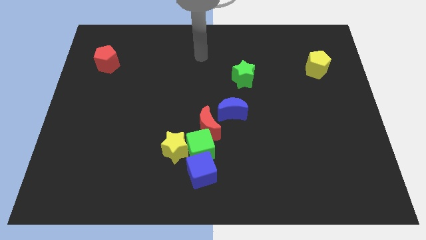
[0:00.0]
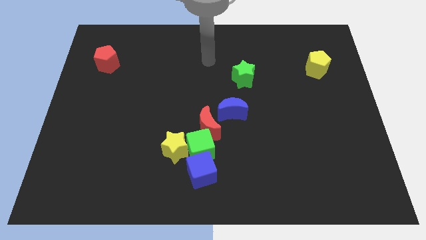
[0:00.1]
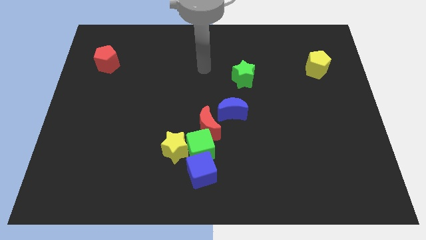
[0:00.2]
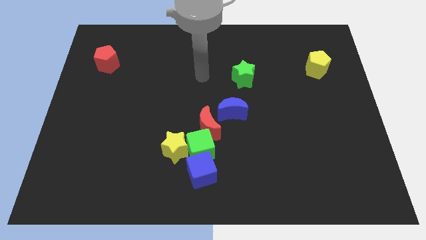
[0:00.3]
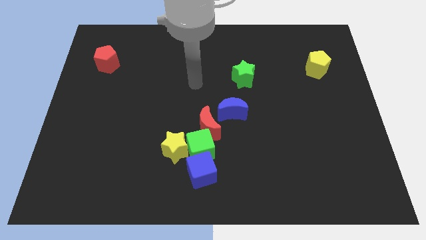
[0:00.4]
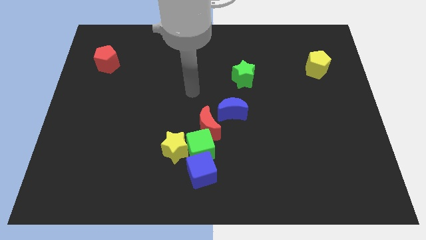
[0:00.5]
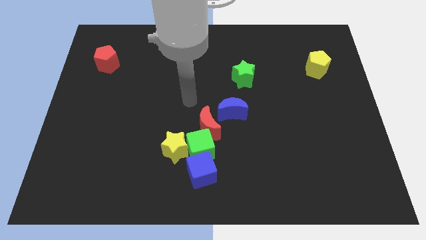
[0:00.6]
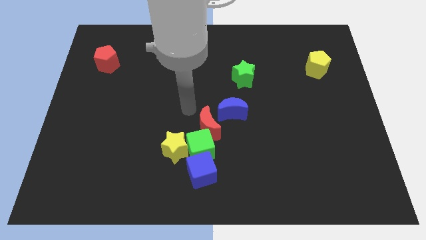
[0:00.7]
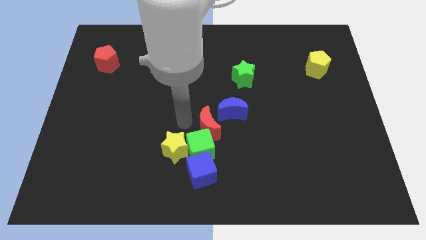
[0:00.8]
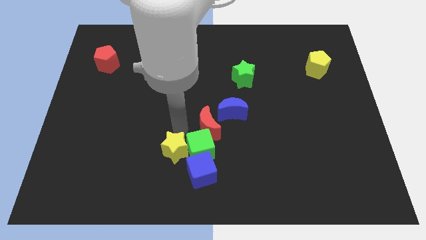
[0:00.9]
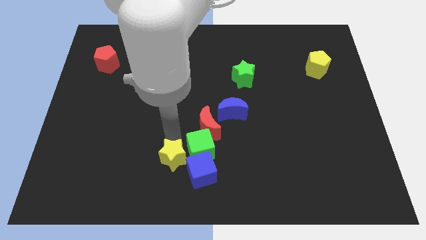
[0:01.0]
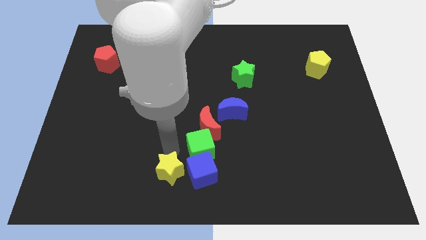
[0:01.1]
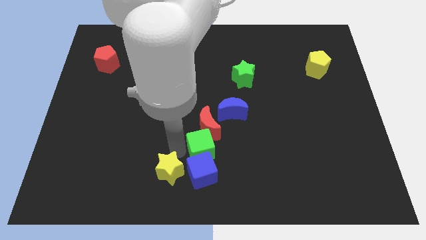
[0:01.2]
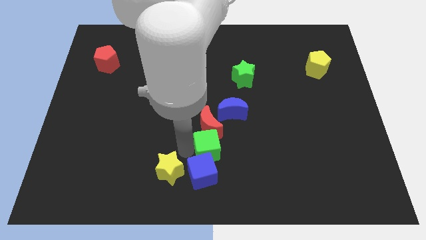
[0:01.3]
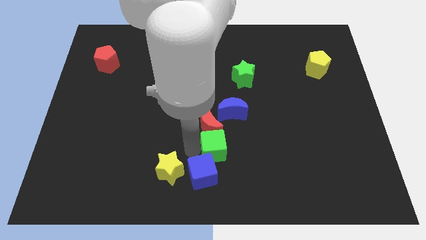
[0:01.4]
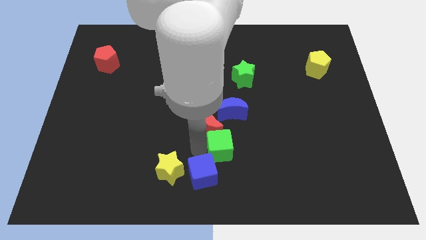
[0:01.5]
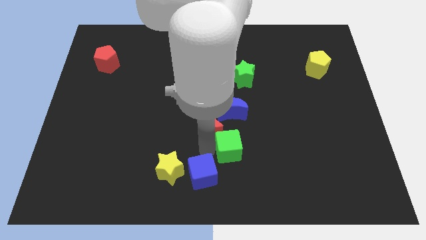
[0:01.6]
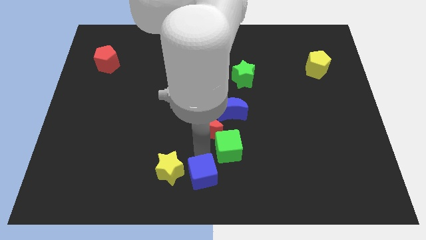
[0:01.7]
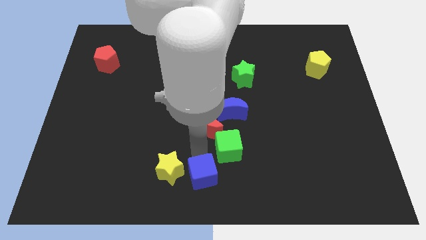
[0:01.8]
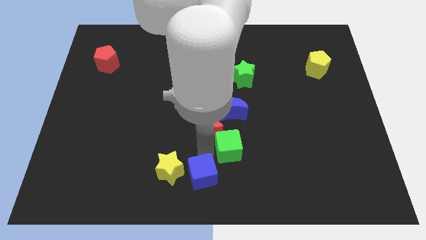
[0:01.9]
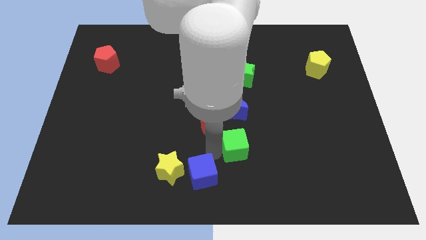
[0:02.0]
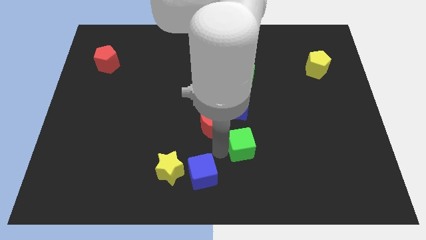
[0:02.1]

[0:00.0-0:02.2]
separate the green cube from the blue cube, yellow star, and red moon

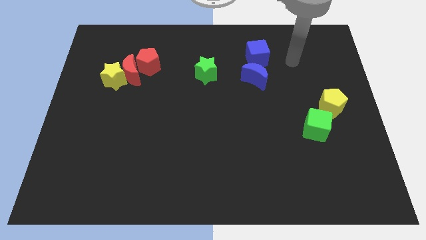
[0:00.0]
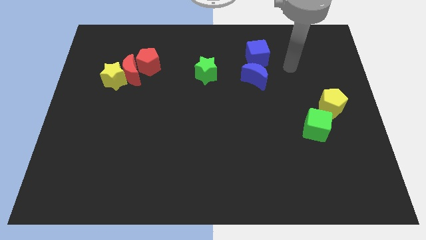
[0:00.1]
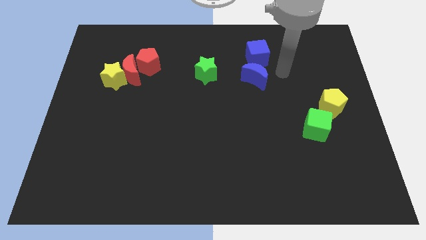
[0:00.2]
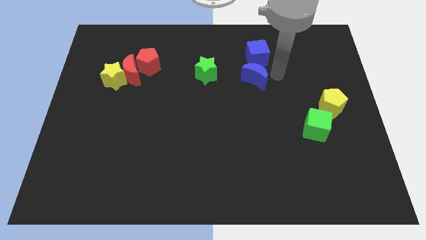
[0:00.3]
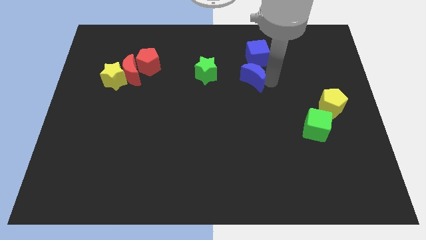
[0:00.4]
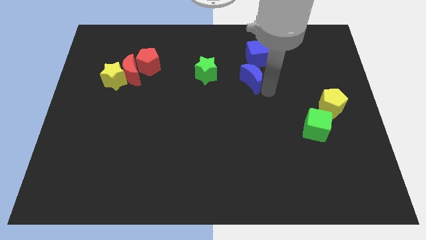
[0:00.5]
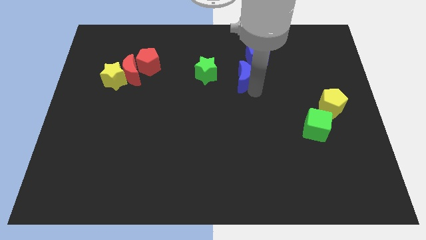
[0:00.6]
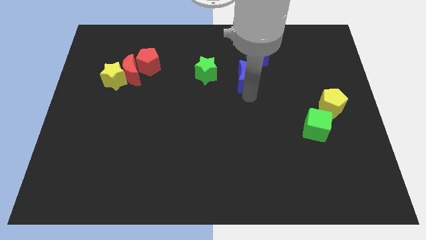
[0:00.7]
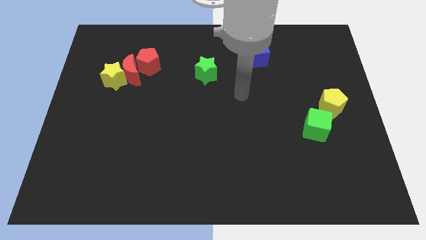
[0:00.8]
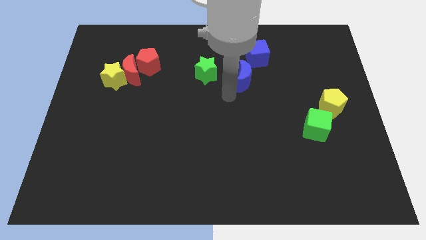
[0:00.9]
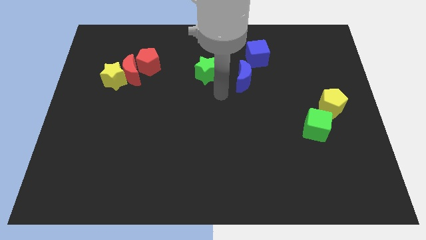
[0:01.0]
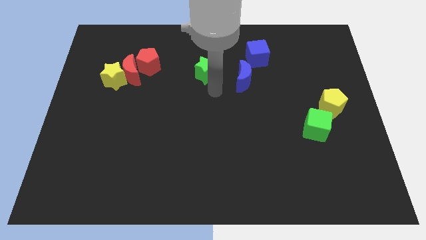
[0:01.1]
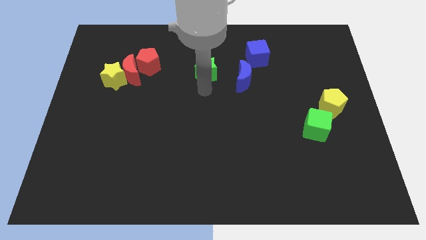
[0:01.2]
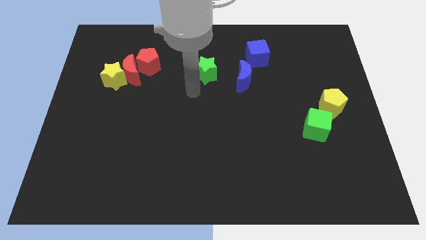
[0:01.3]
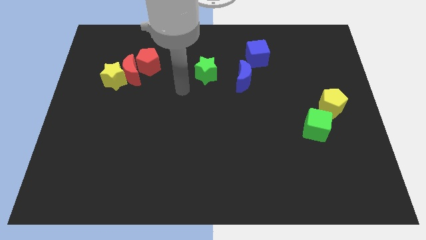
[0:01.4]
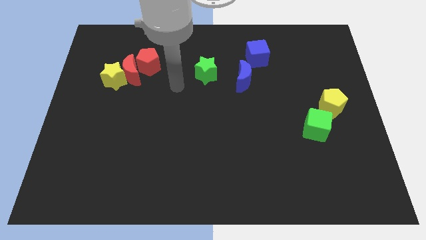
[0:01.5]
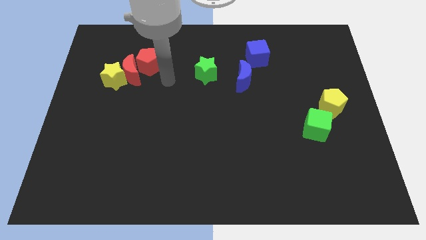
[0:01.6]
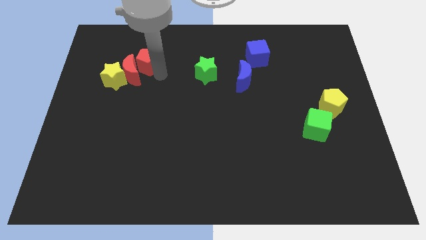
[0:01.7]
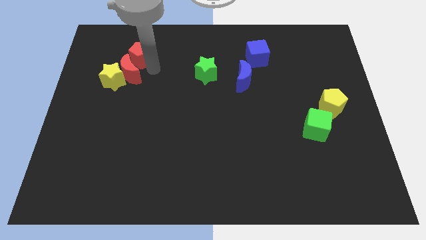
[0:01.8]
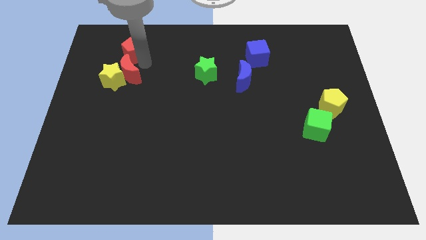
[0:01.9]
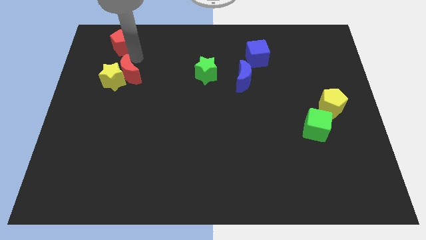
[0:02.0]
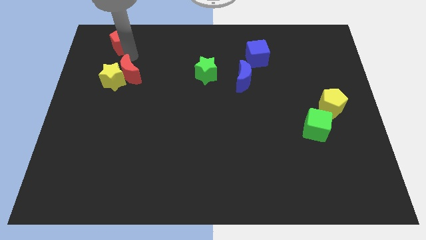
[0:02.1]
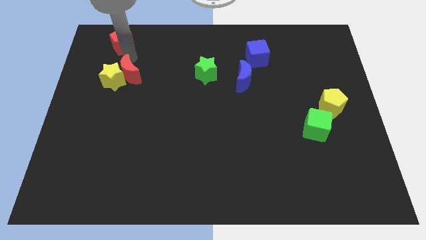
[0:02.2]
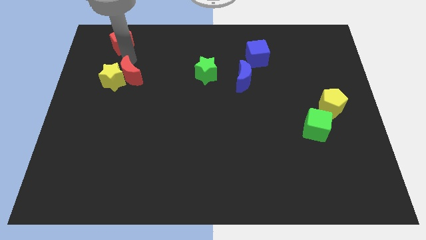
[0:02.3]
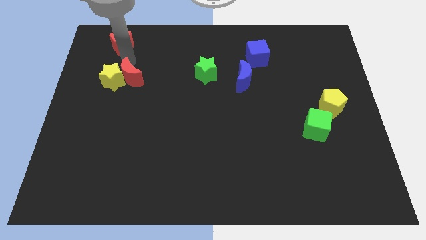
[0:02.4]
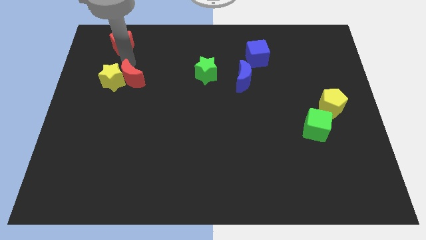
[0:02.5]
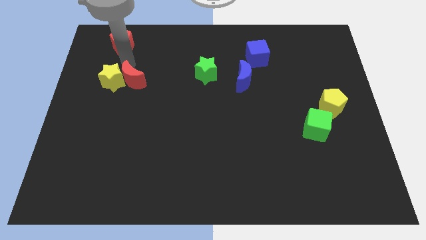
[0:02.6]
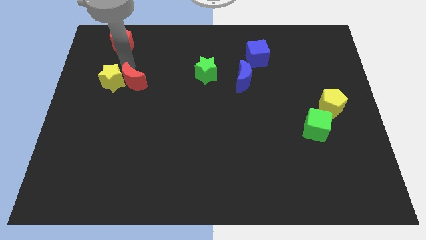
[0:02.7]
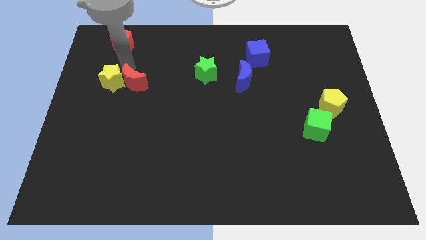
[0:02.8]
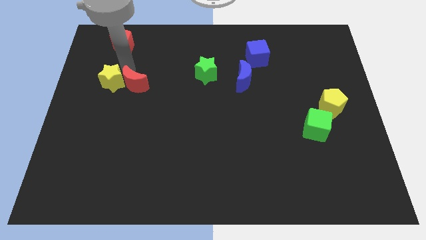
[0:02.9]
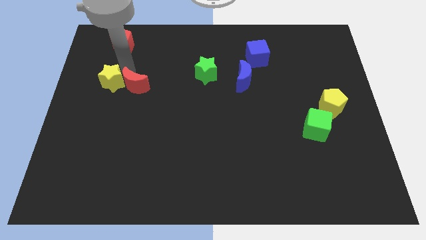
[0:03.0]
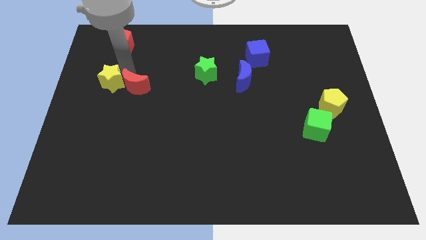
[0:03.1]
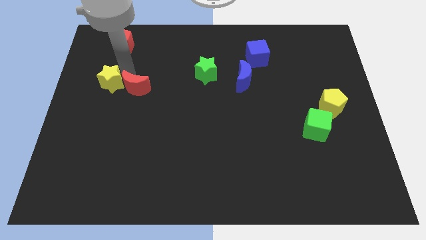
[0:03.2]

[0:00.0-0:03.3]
separate the red moon from the yellow star and red pentagon

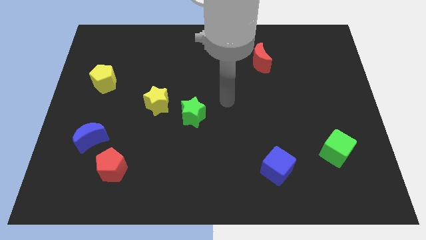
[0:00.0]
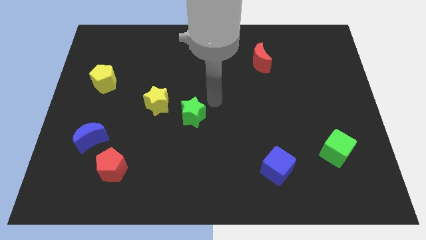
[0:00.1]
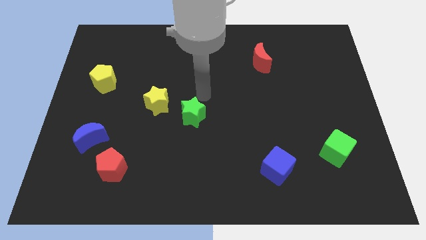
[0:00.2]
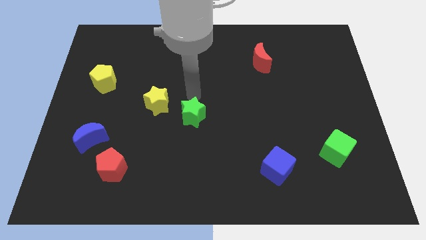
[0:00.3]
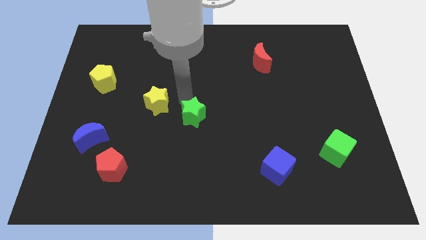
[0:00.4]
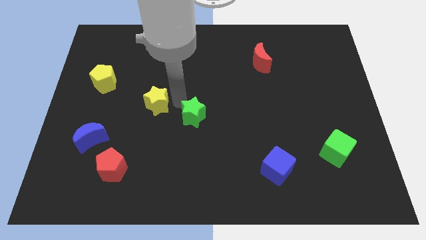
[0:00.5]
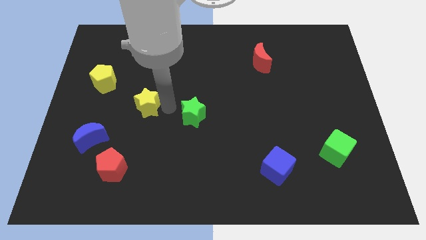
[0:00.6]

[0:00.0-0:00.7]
separate the green star from the yellow star

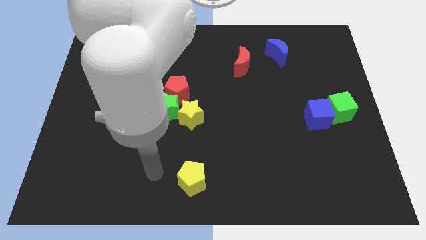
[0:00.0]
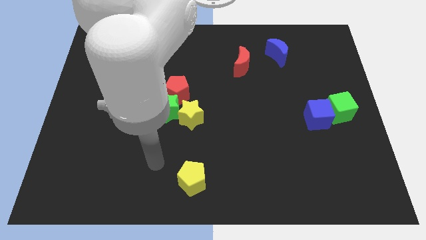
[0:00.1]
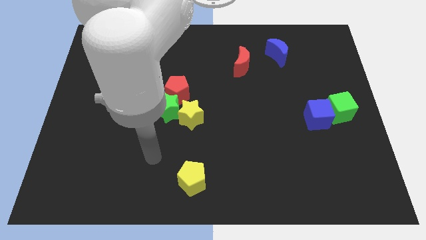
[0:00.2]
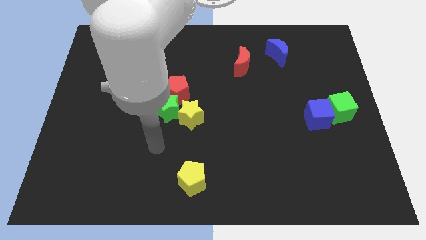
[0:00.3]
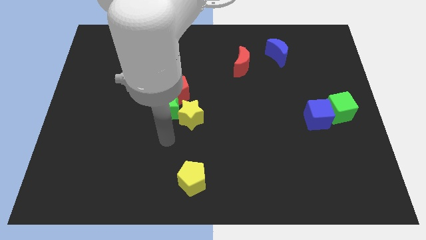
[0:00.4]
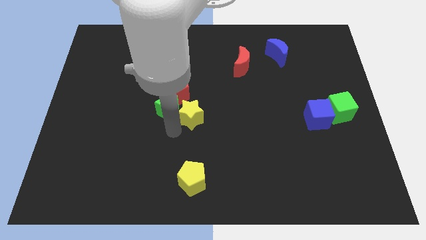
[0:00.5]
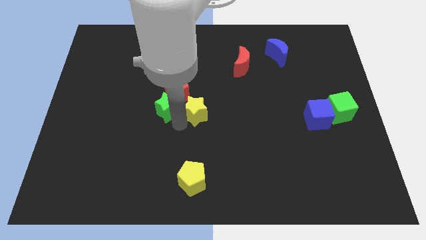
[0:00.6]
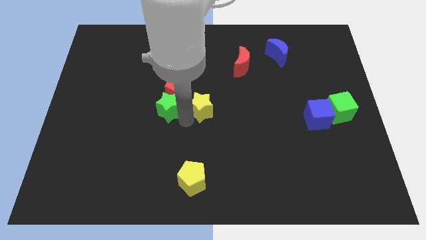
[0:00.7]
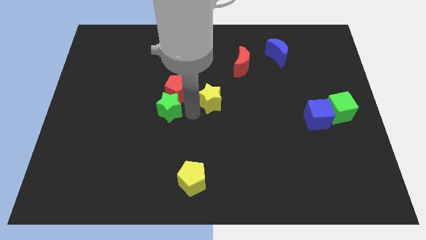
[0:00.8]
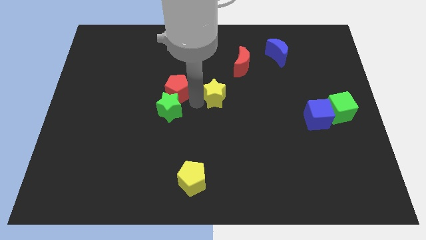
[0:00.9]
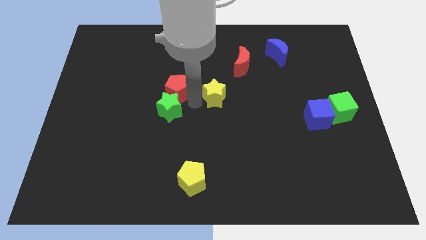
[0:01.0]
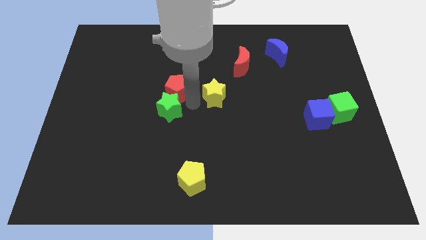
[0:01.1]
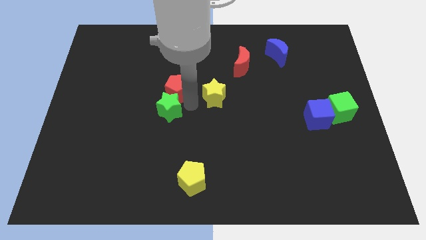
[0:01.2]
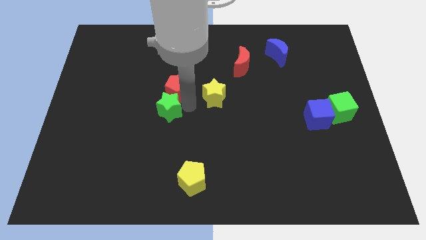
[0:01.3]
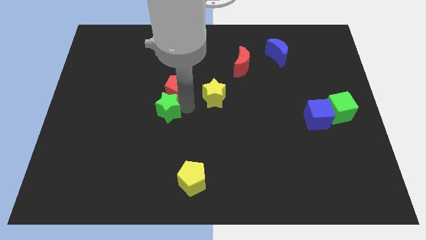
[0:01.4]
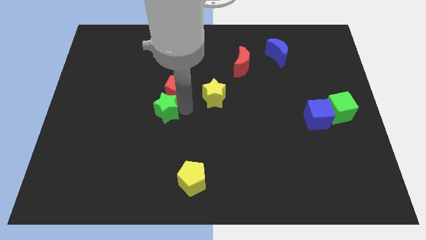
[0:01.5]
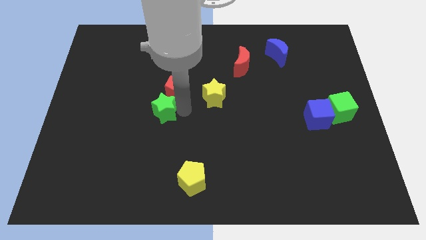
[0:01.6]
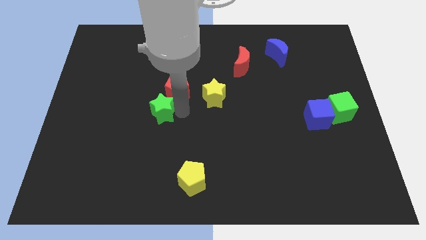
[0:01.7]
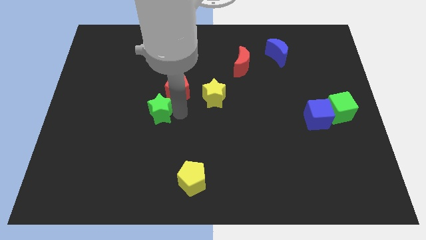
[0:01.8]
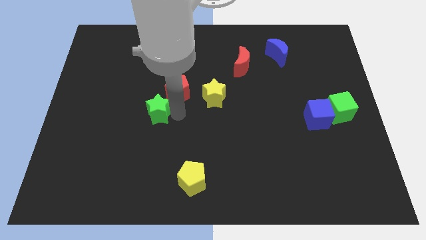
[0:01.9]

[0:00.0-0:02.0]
move the green star away from the red pentagon and yellow star

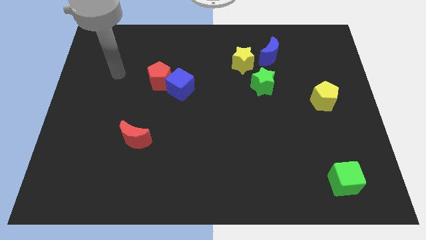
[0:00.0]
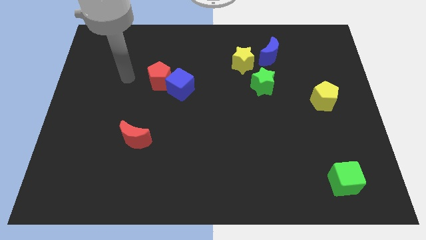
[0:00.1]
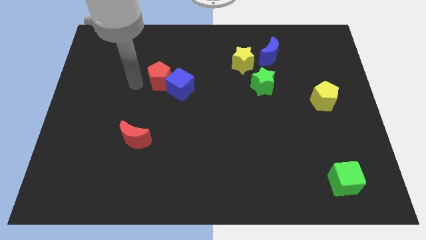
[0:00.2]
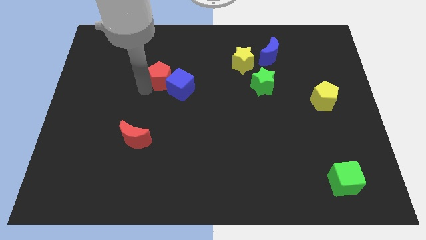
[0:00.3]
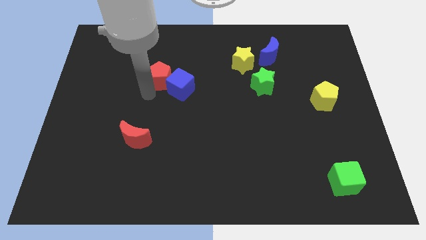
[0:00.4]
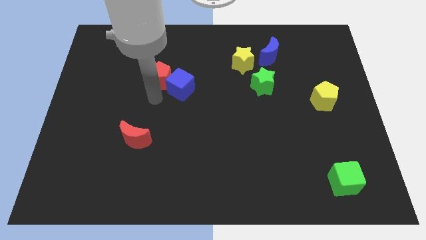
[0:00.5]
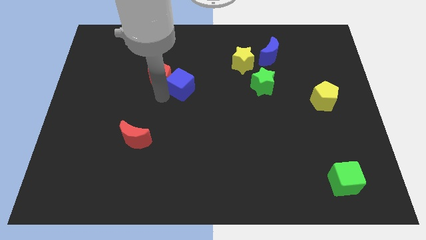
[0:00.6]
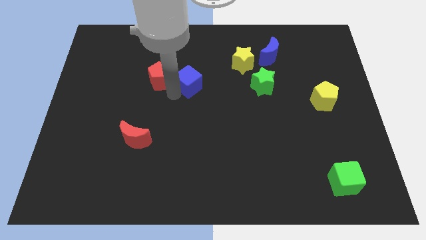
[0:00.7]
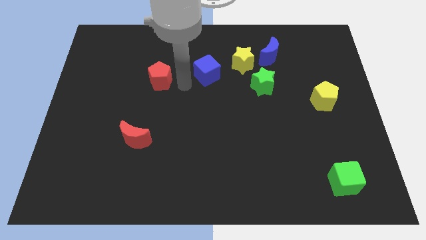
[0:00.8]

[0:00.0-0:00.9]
pull the red pentagon apart from the blue cube

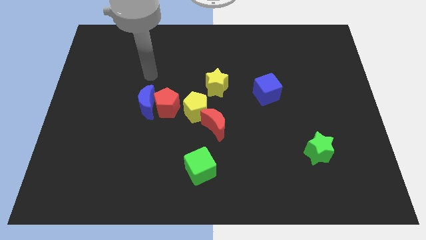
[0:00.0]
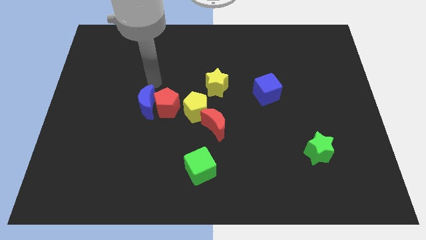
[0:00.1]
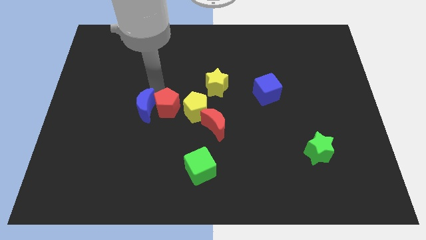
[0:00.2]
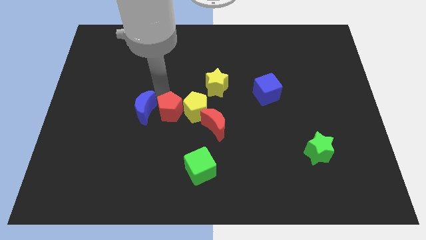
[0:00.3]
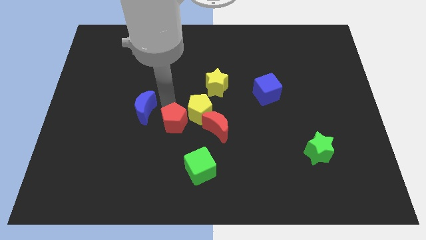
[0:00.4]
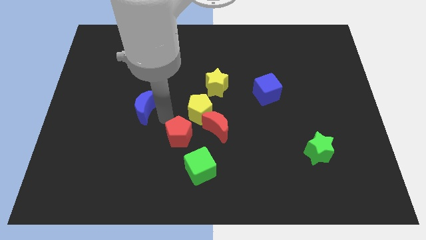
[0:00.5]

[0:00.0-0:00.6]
move the blue moon away from the red pentagon
